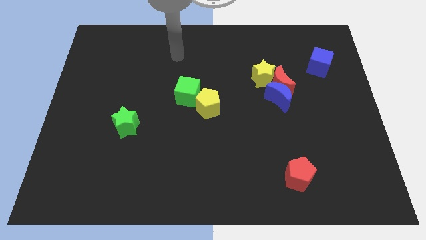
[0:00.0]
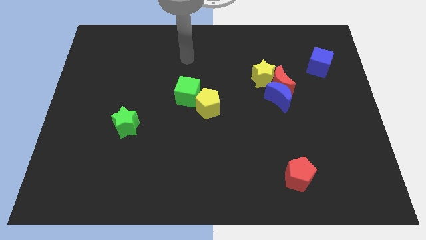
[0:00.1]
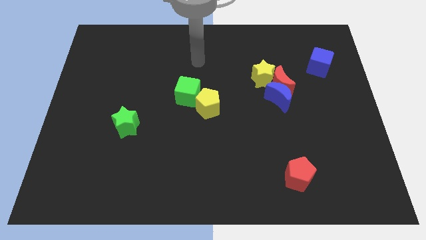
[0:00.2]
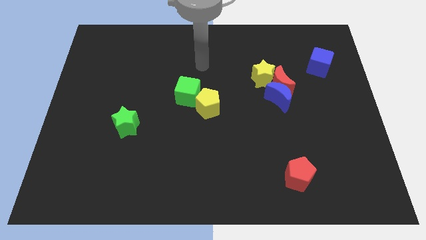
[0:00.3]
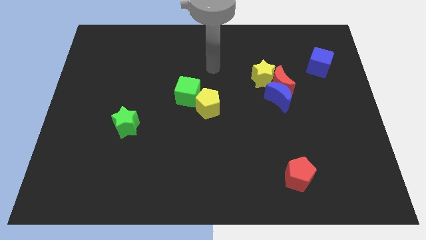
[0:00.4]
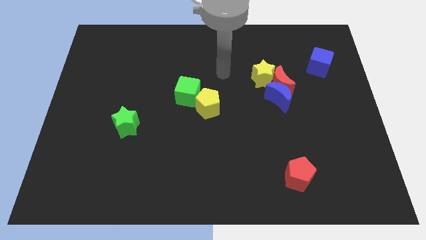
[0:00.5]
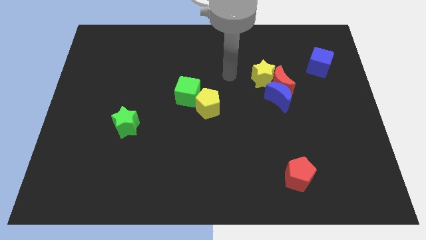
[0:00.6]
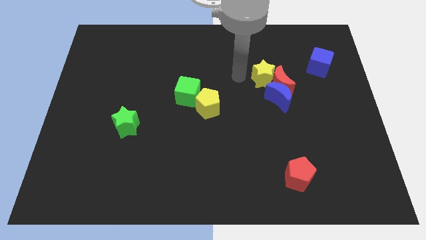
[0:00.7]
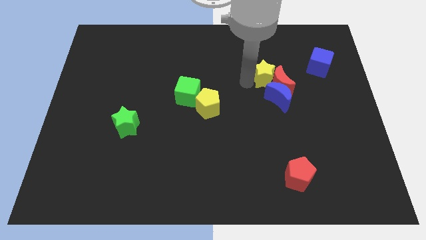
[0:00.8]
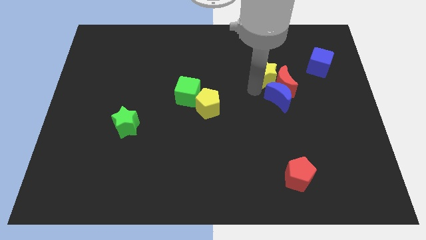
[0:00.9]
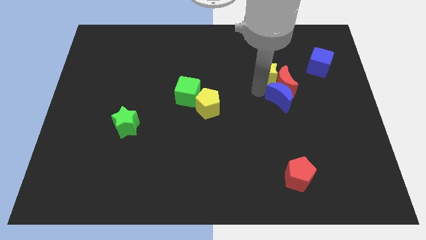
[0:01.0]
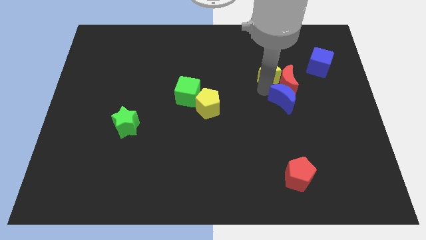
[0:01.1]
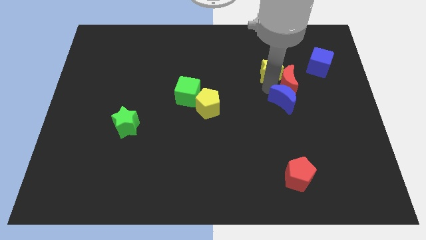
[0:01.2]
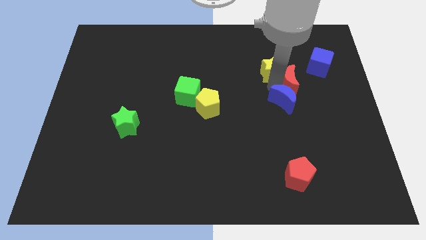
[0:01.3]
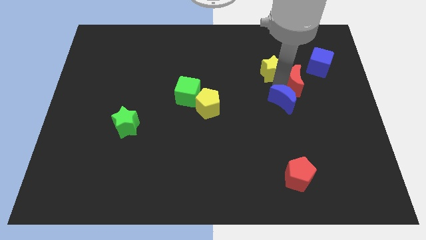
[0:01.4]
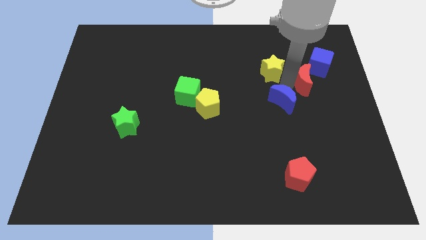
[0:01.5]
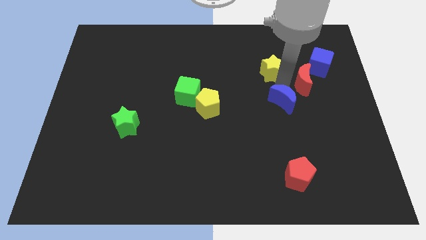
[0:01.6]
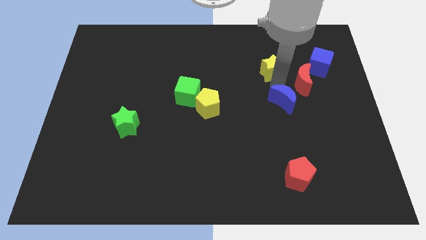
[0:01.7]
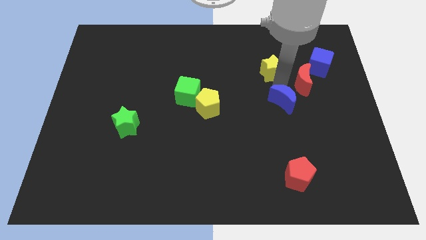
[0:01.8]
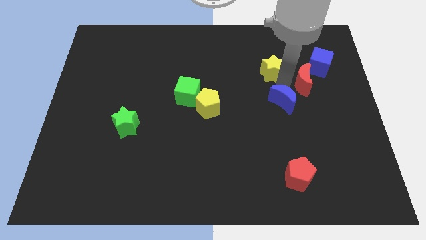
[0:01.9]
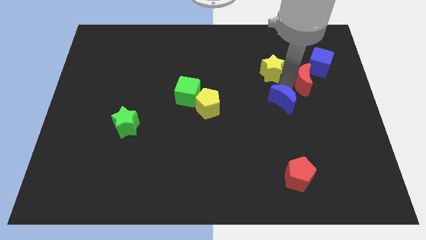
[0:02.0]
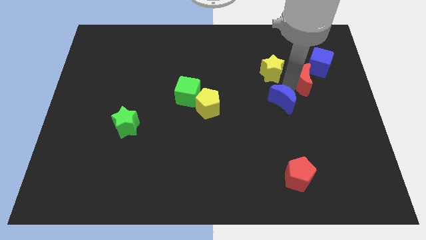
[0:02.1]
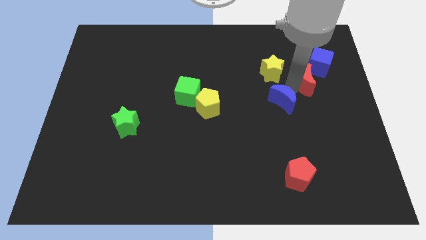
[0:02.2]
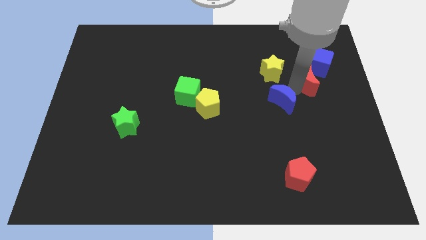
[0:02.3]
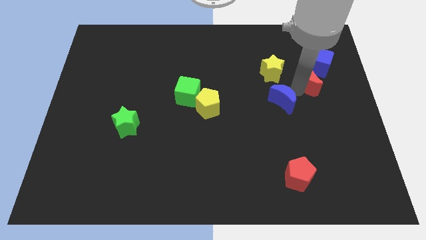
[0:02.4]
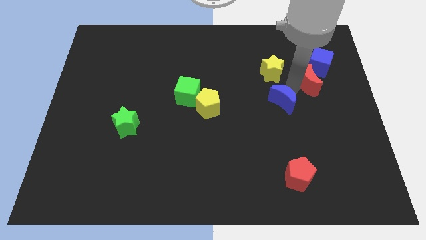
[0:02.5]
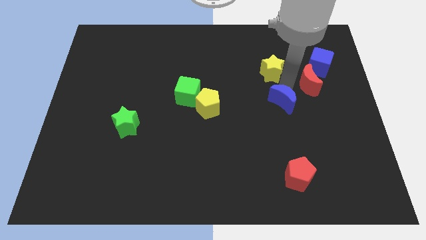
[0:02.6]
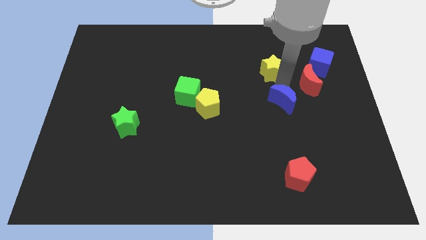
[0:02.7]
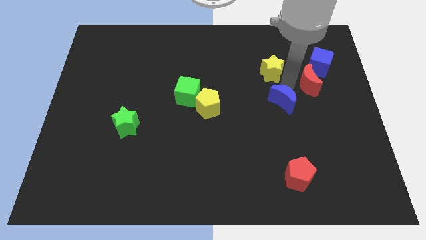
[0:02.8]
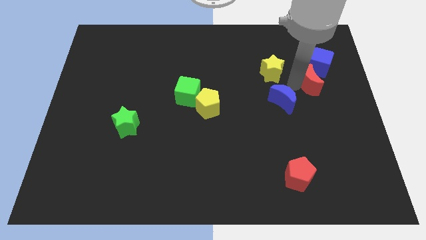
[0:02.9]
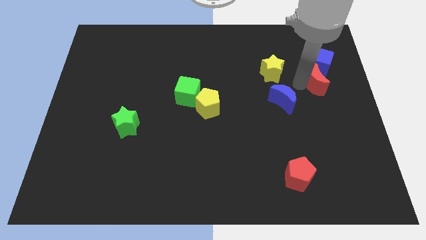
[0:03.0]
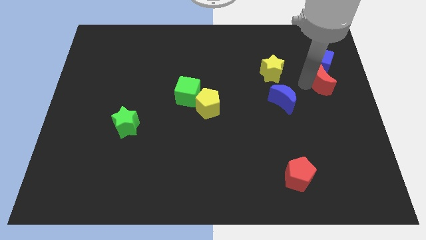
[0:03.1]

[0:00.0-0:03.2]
move the red moon away from the blue moon and yellow star

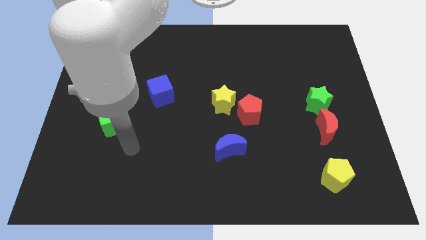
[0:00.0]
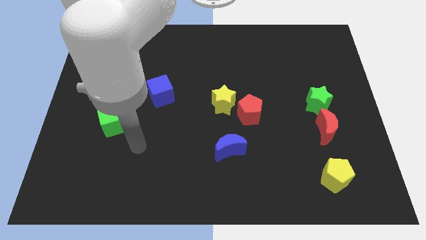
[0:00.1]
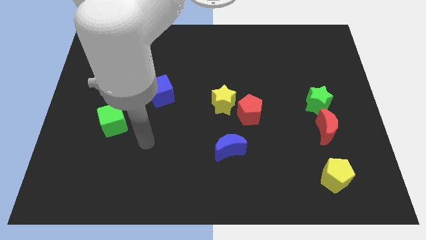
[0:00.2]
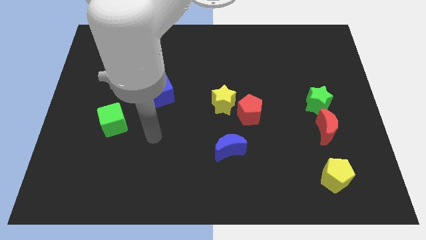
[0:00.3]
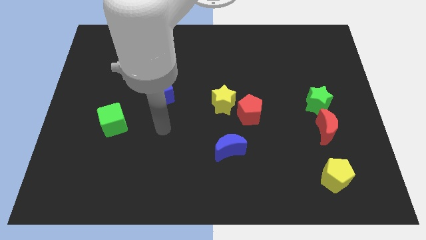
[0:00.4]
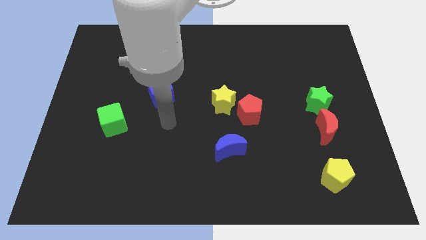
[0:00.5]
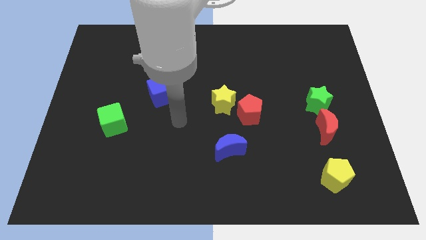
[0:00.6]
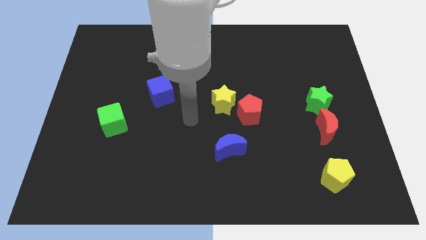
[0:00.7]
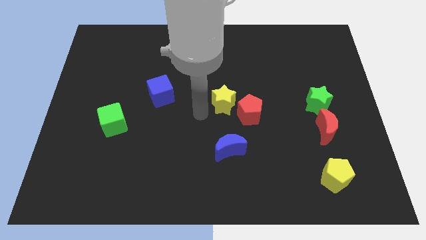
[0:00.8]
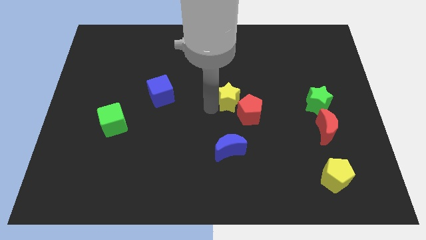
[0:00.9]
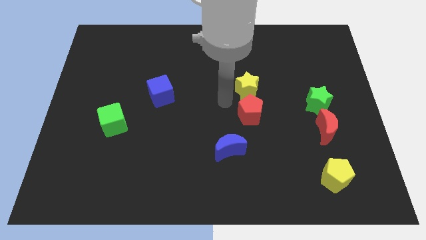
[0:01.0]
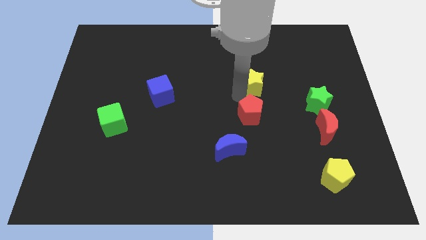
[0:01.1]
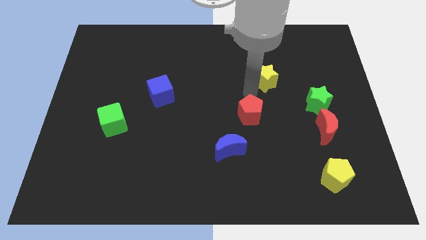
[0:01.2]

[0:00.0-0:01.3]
move the red pentagon away from the yellow star

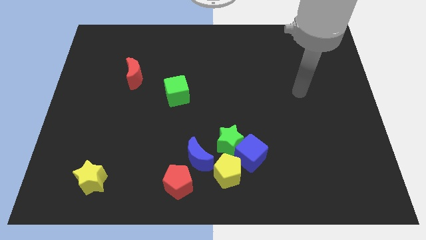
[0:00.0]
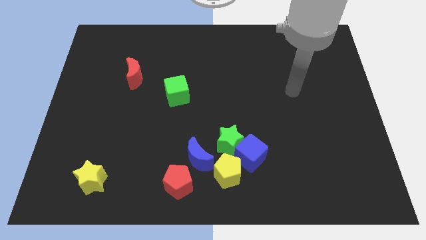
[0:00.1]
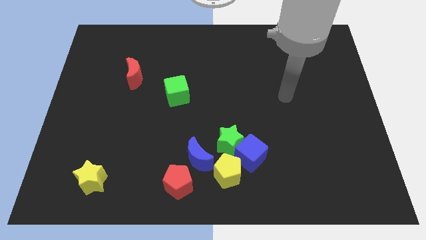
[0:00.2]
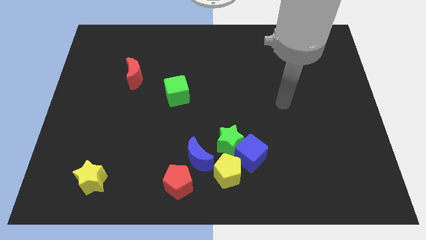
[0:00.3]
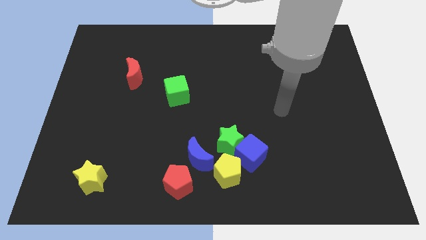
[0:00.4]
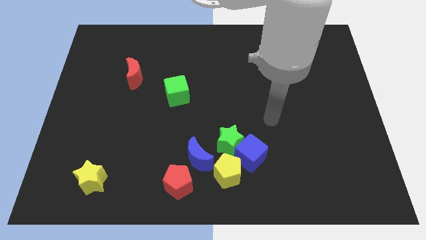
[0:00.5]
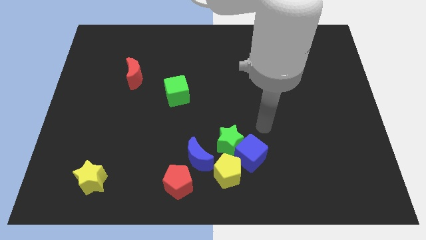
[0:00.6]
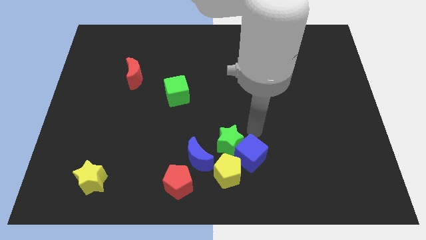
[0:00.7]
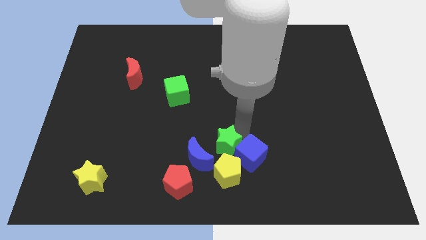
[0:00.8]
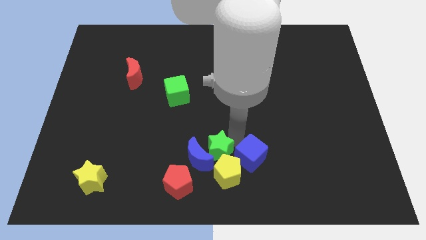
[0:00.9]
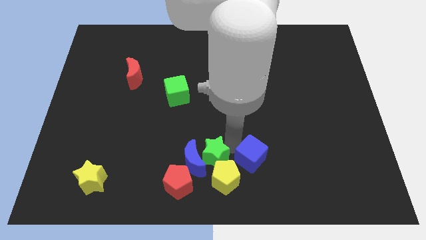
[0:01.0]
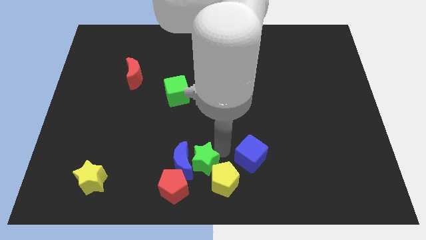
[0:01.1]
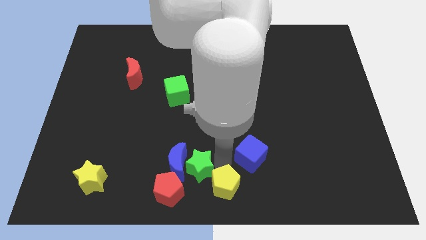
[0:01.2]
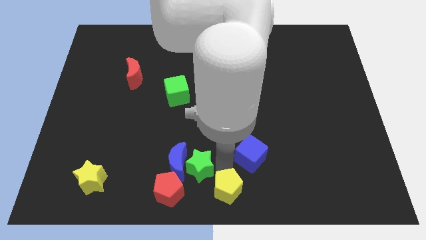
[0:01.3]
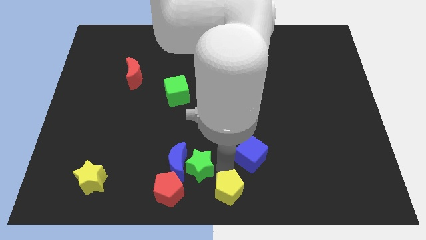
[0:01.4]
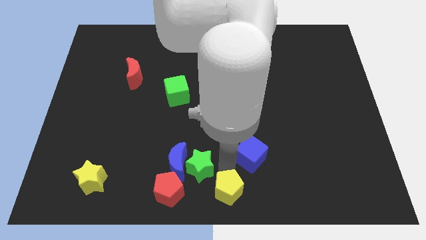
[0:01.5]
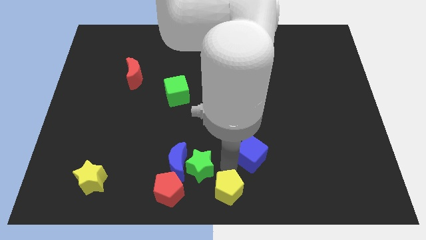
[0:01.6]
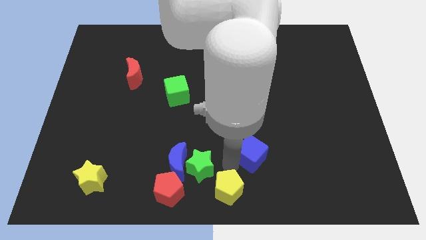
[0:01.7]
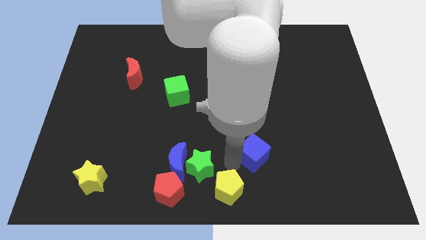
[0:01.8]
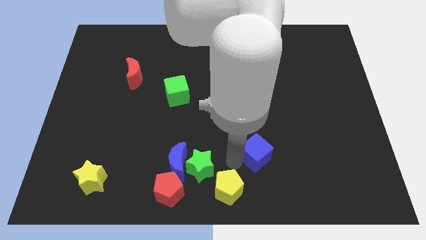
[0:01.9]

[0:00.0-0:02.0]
separate the blue cube from the green star and yellow pentagon

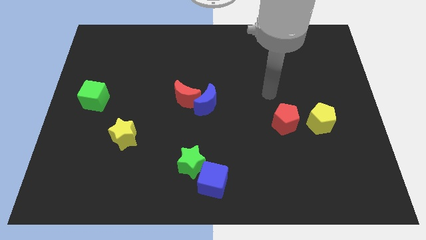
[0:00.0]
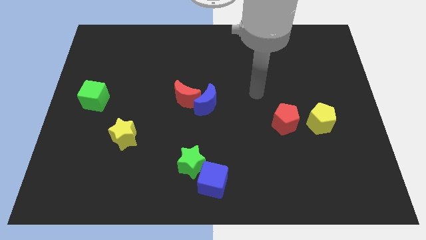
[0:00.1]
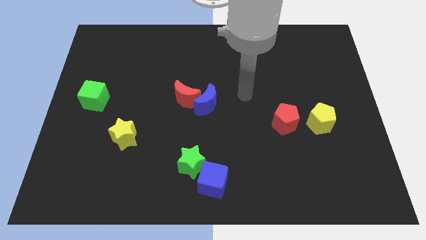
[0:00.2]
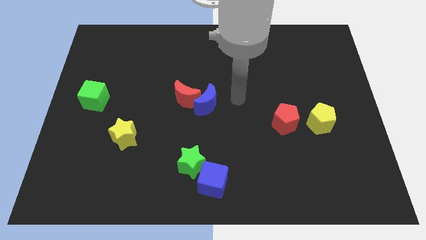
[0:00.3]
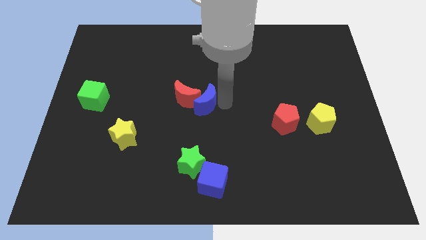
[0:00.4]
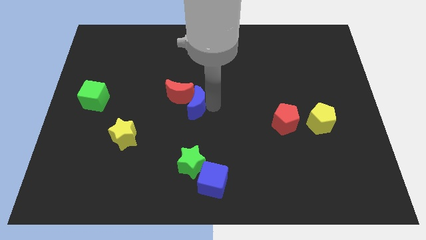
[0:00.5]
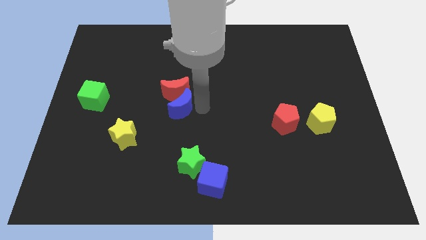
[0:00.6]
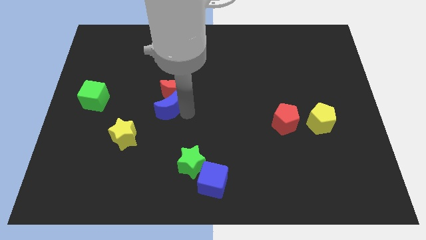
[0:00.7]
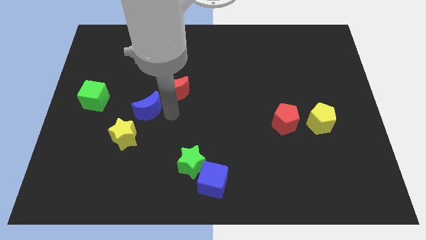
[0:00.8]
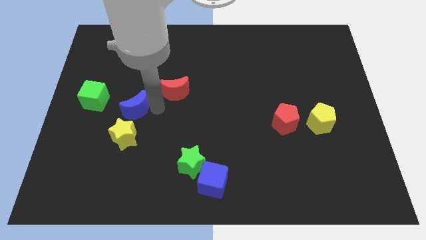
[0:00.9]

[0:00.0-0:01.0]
move the red moon away from the blue moon

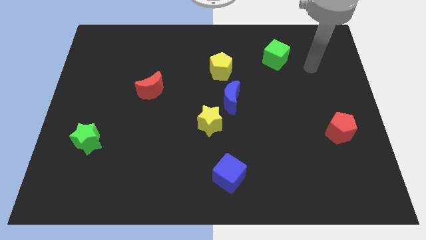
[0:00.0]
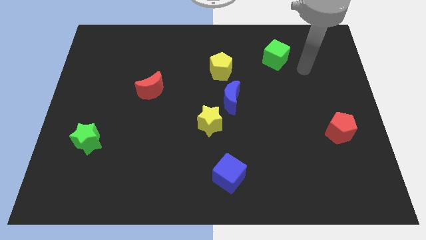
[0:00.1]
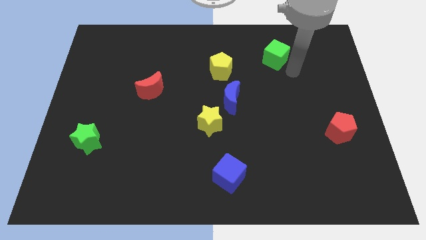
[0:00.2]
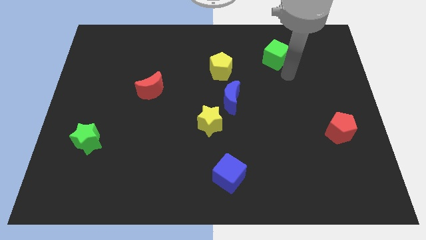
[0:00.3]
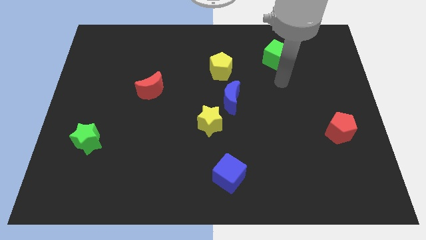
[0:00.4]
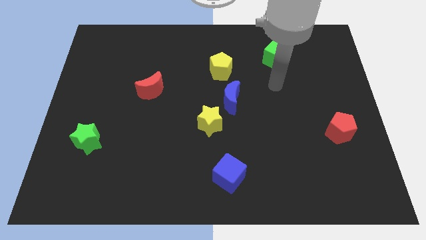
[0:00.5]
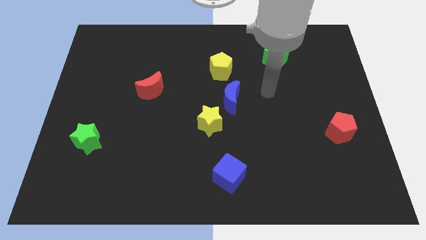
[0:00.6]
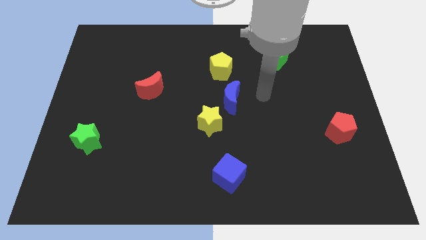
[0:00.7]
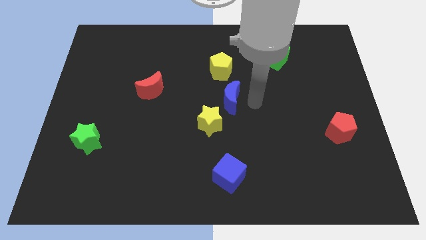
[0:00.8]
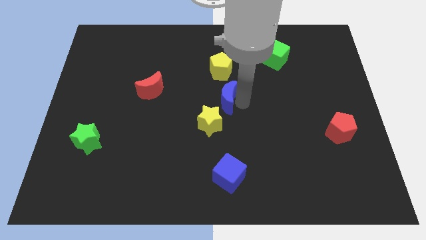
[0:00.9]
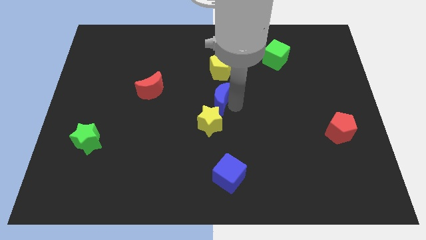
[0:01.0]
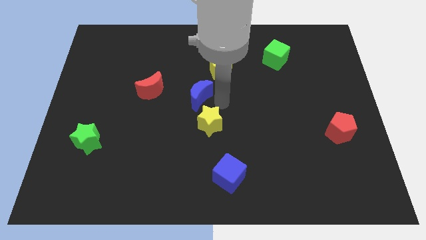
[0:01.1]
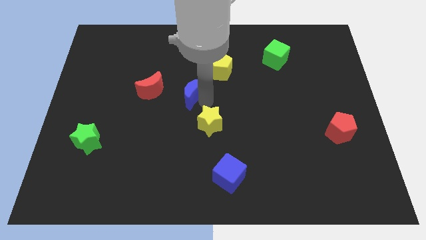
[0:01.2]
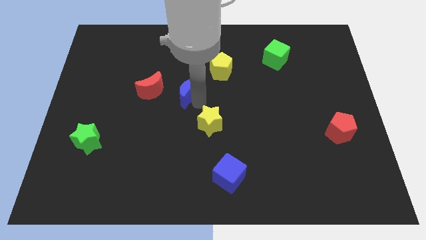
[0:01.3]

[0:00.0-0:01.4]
move the yellow star away from the blue moon

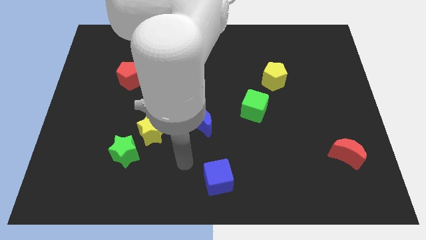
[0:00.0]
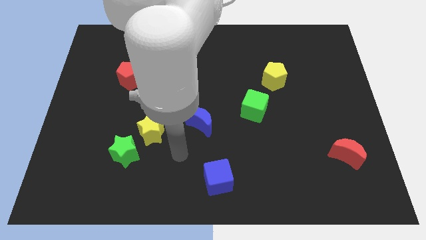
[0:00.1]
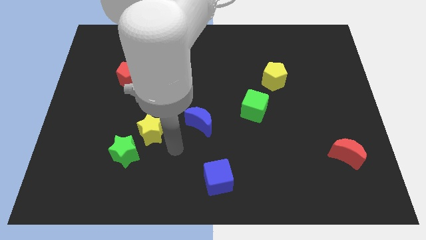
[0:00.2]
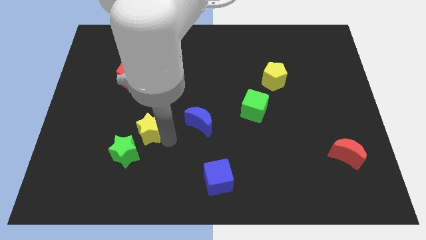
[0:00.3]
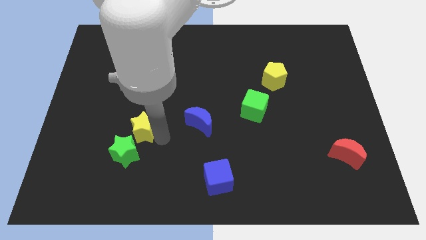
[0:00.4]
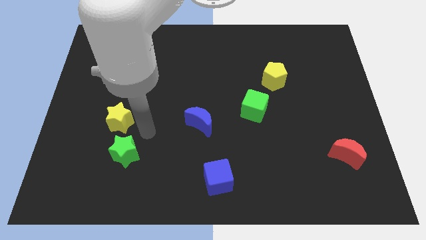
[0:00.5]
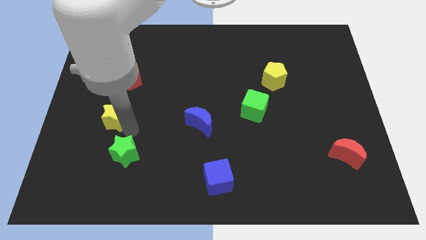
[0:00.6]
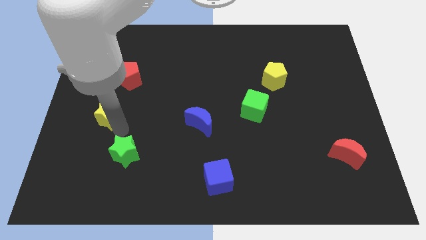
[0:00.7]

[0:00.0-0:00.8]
pull the green star apart from the yellow star
